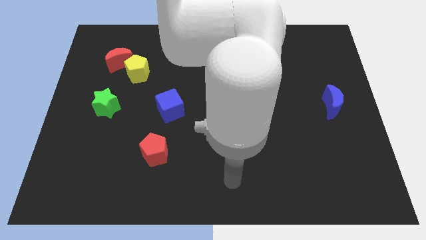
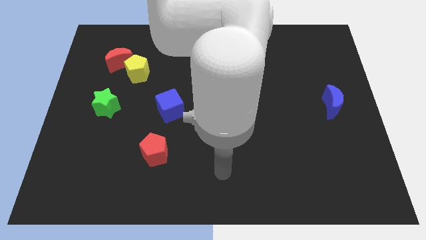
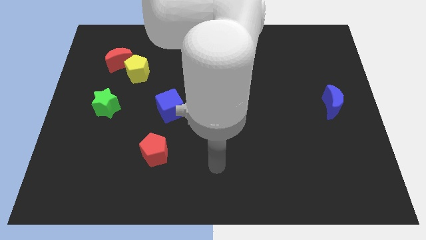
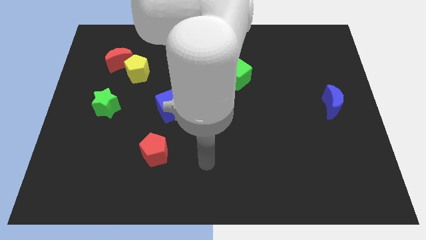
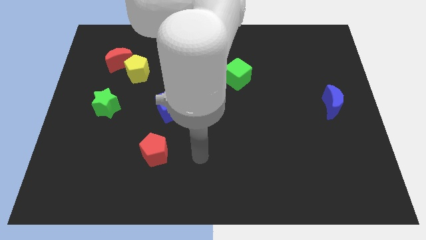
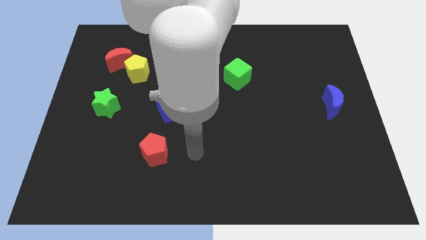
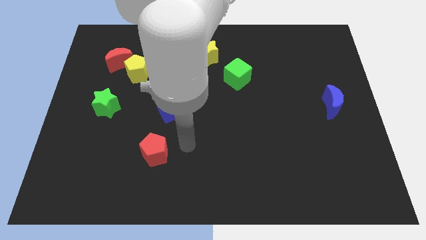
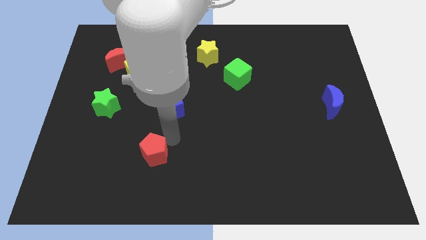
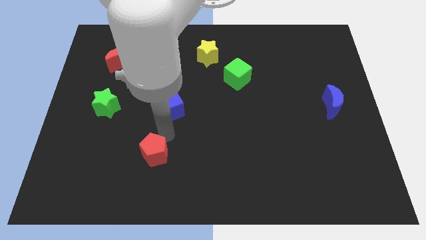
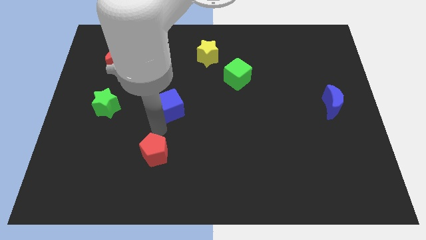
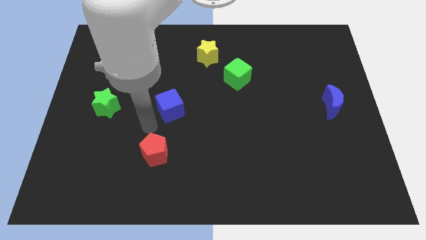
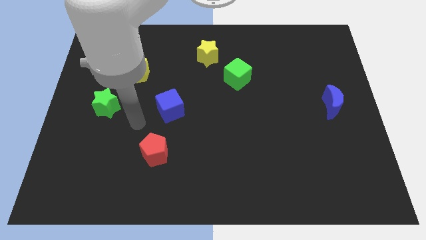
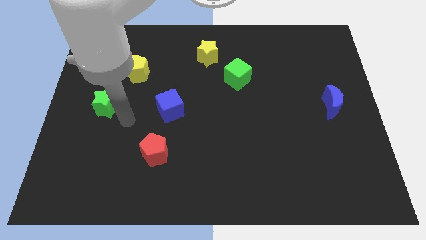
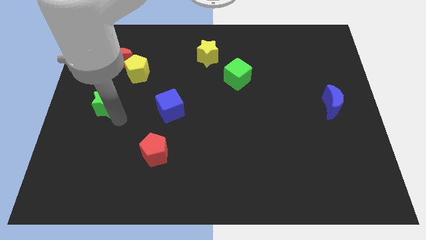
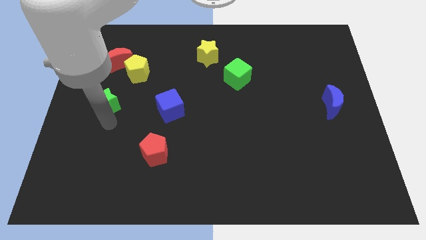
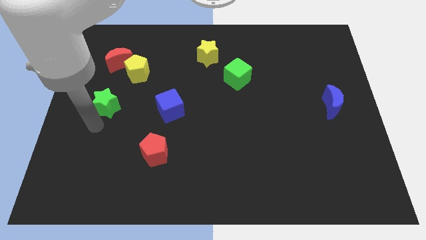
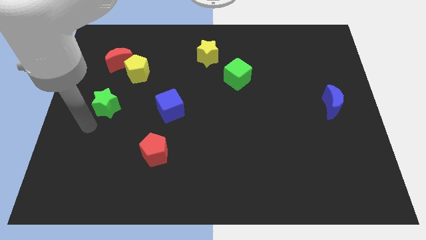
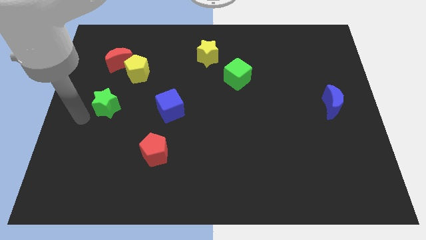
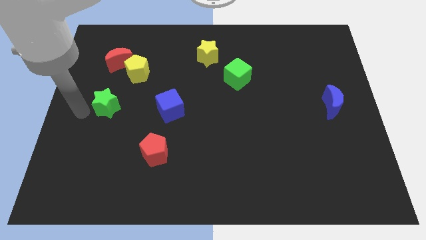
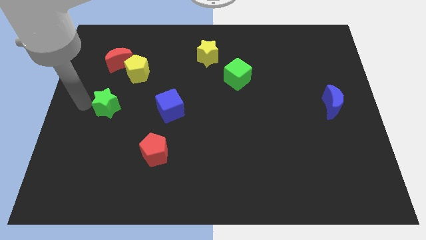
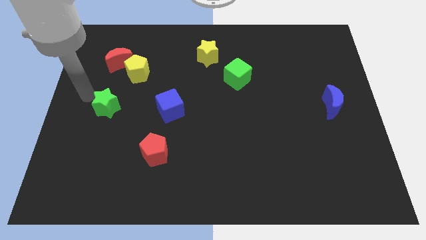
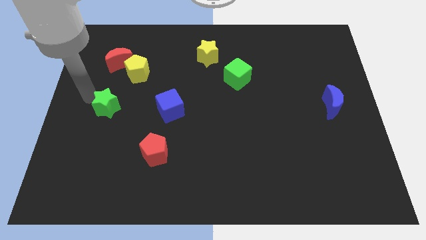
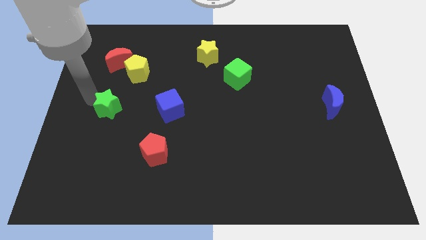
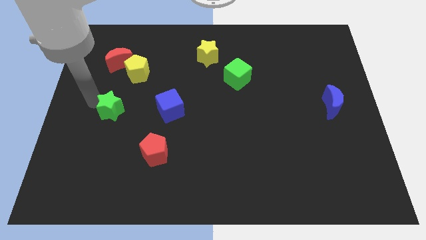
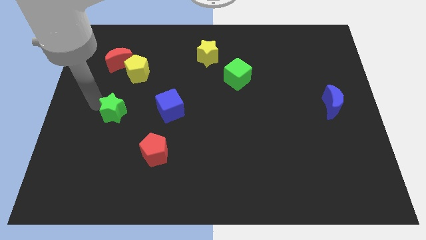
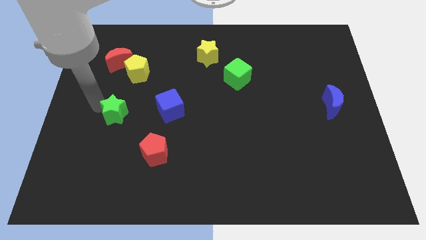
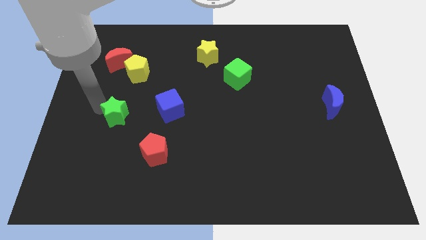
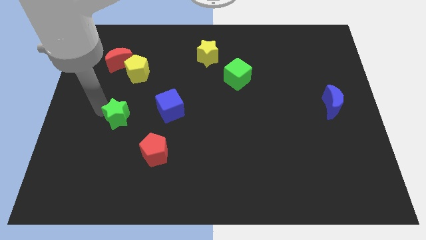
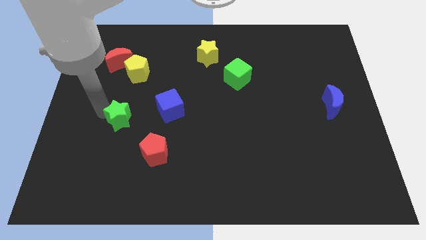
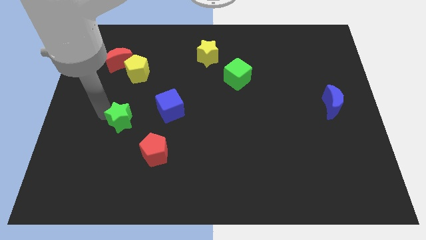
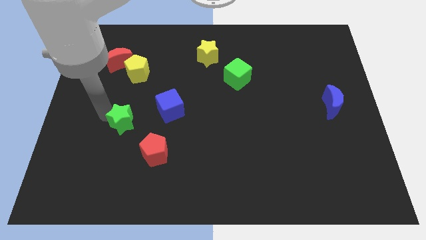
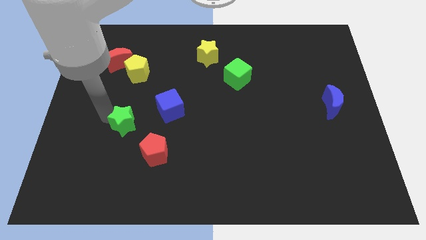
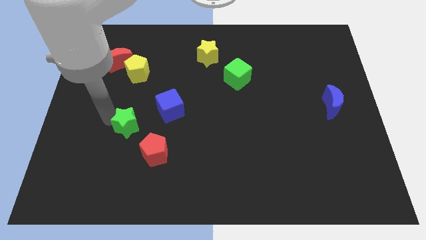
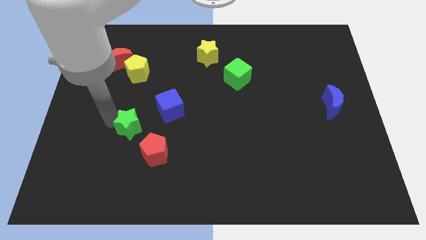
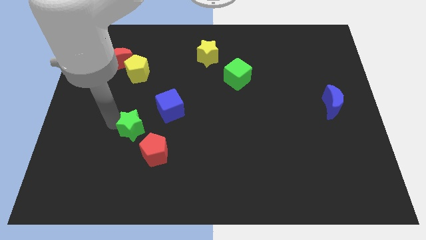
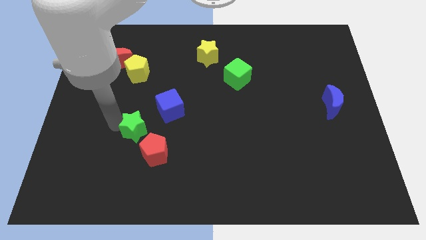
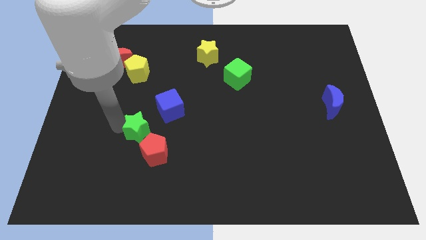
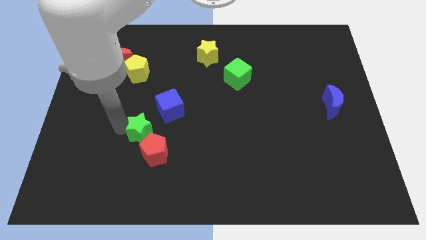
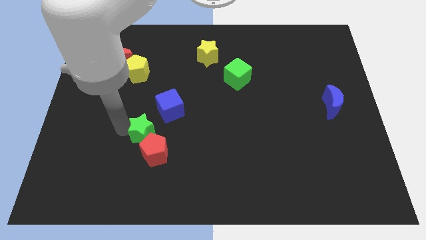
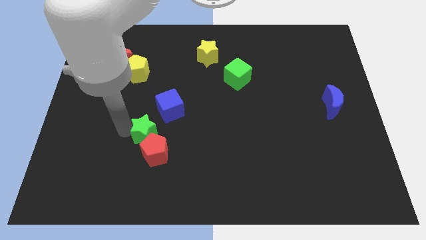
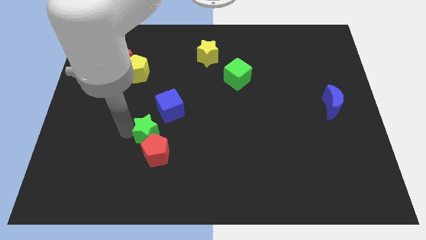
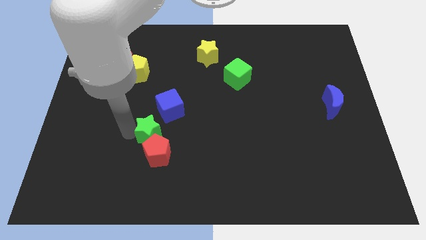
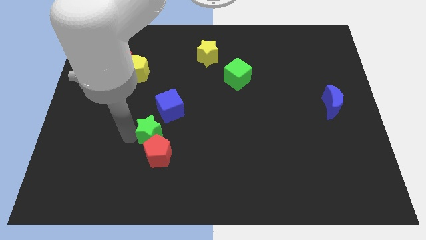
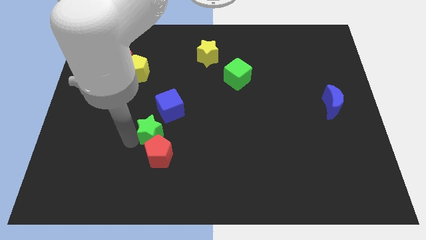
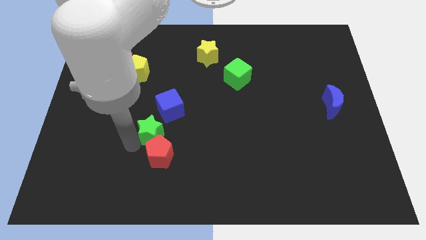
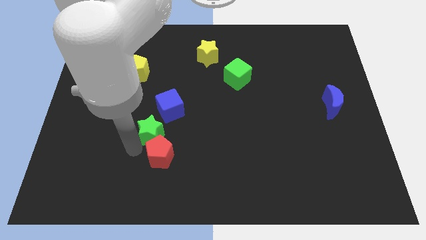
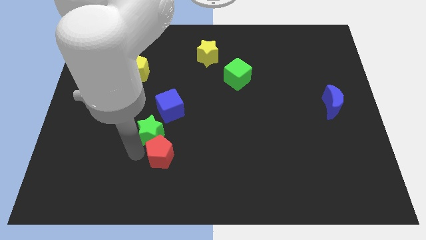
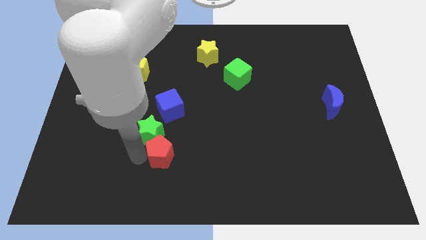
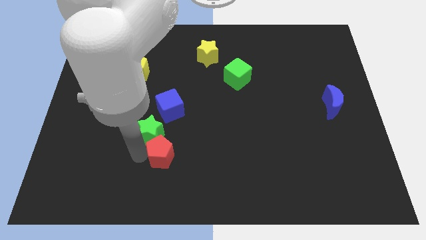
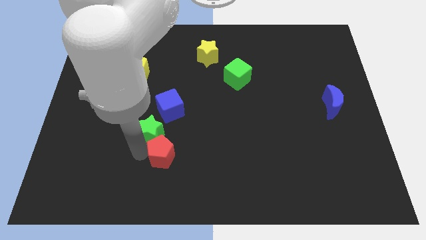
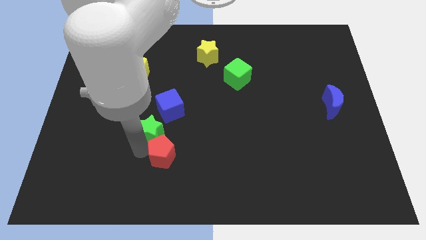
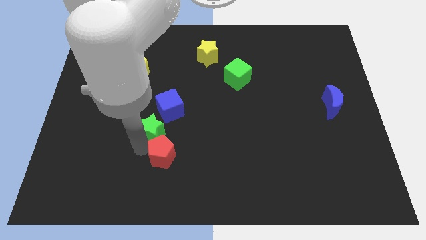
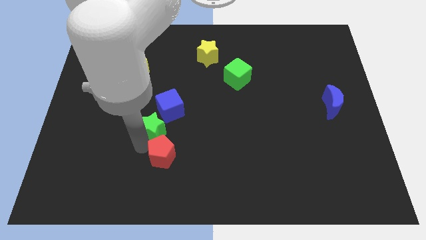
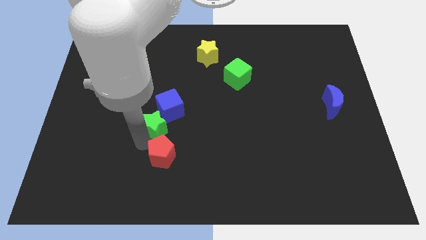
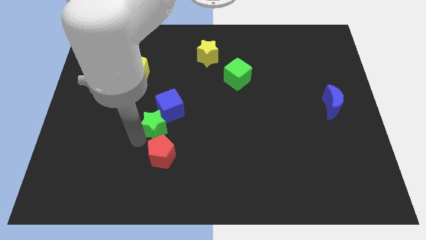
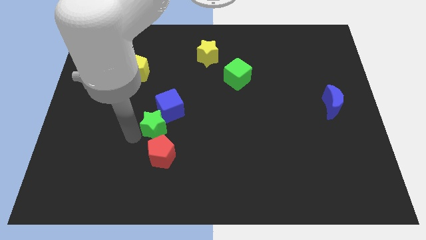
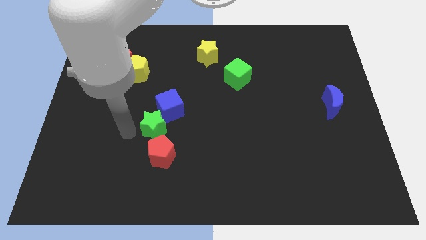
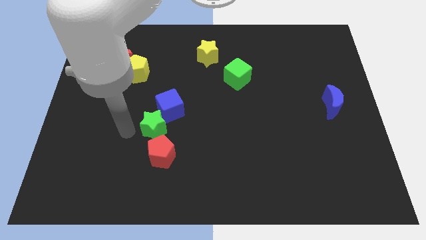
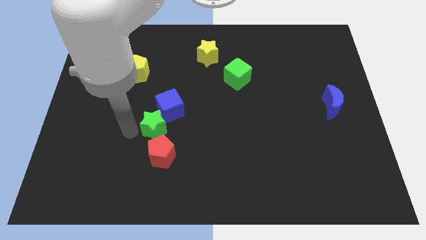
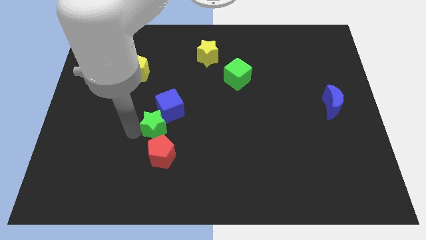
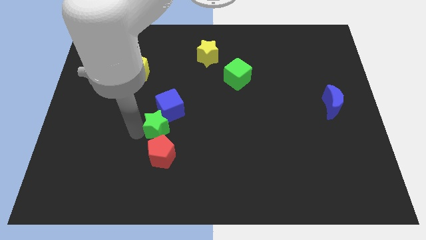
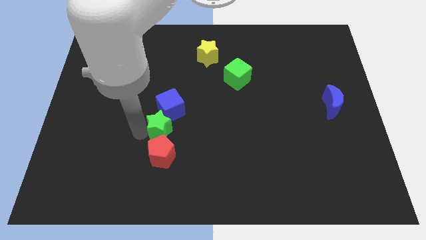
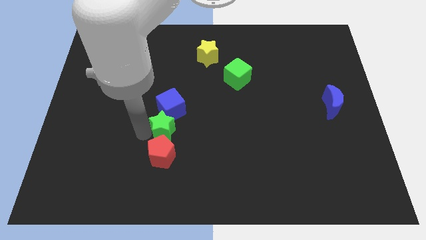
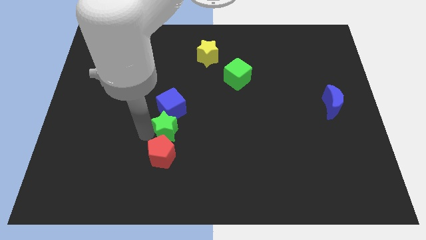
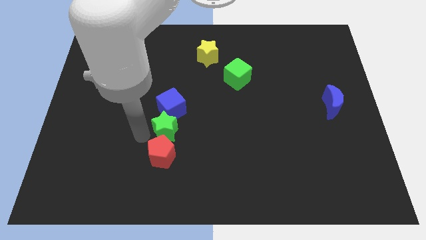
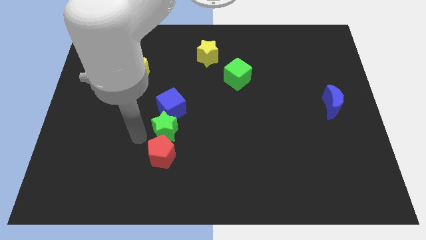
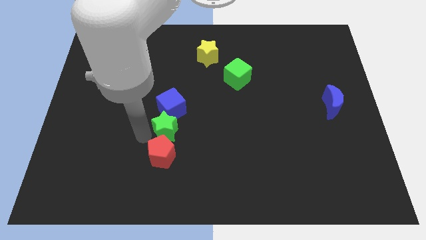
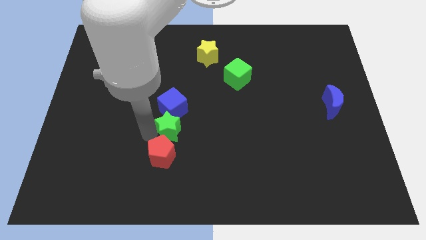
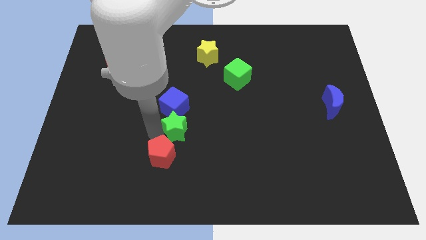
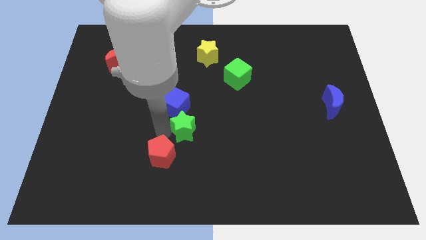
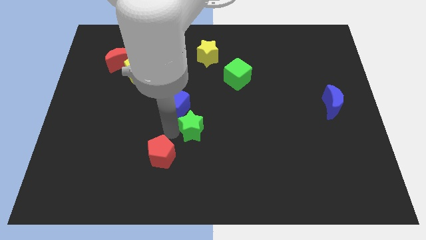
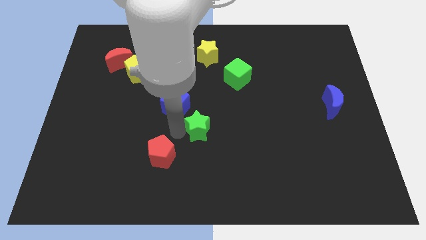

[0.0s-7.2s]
slide the green star right

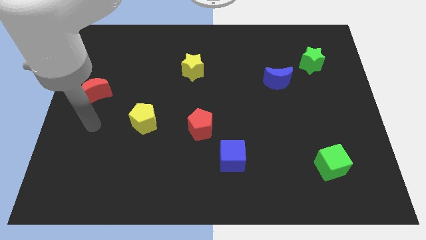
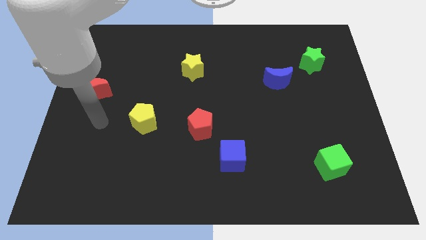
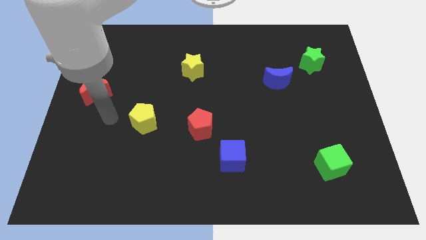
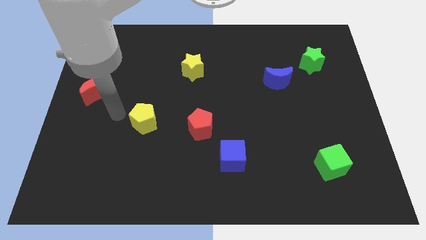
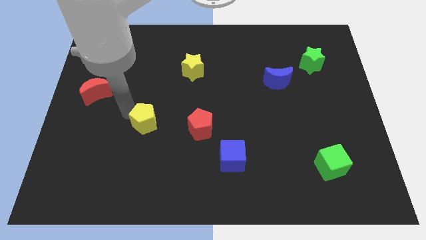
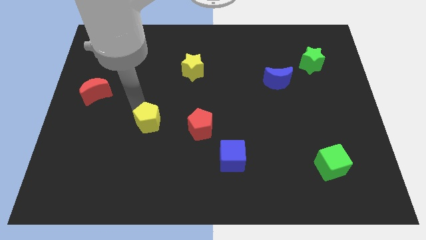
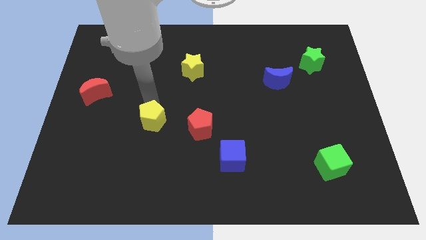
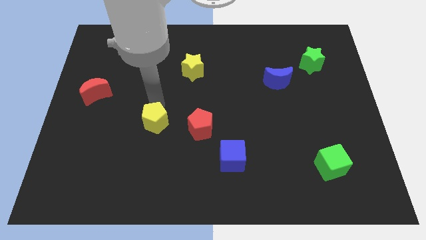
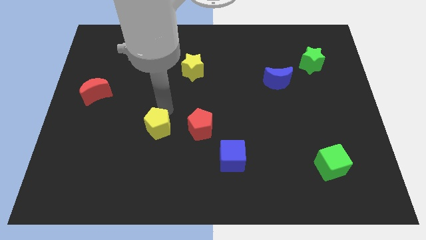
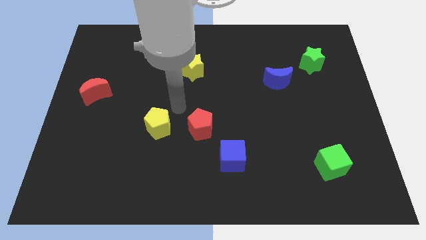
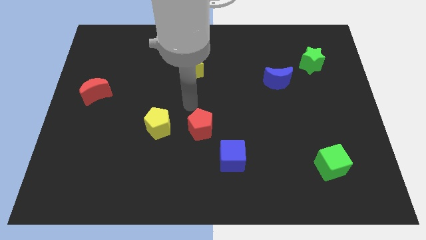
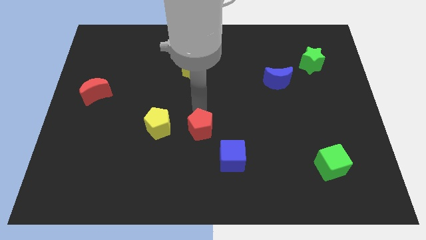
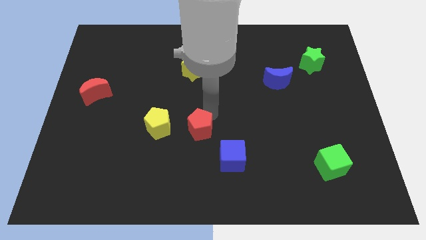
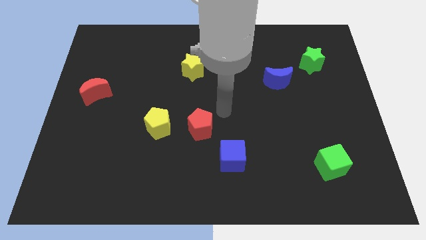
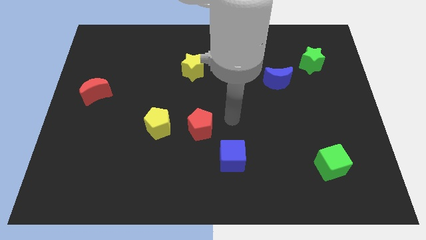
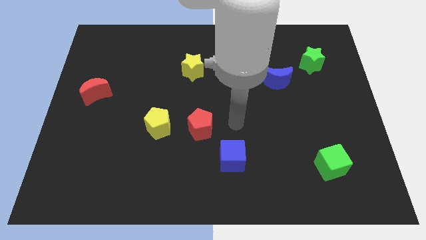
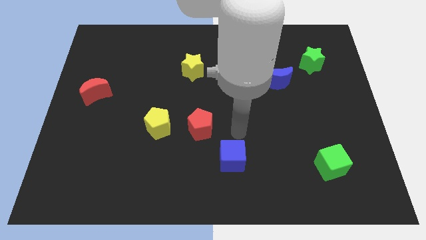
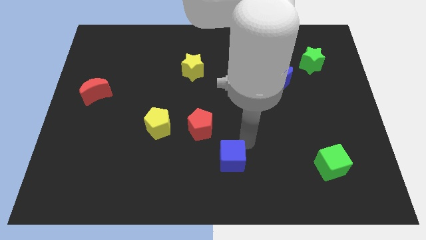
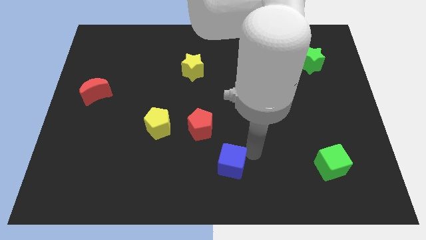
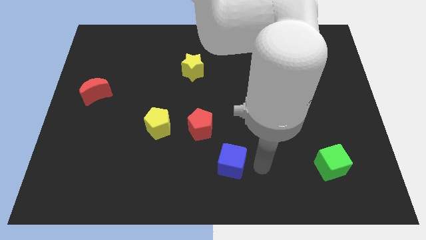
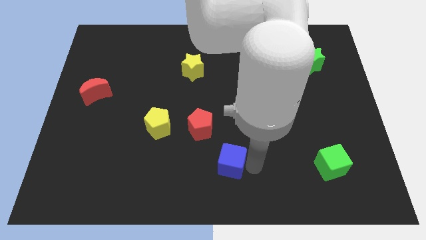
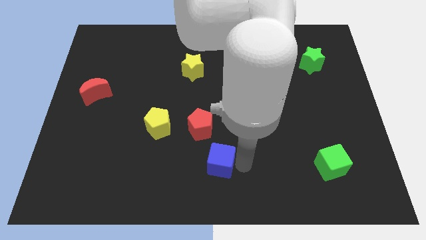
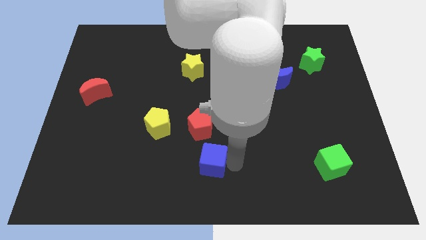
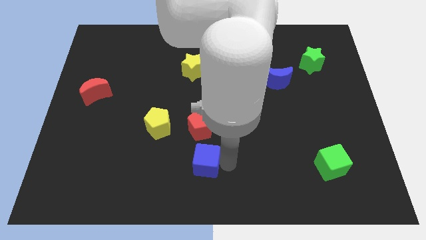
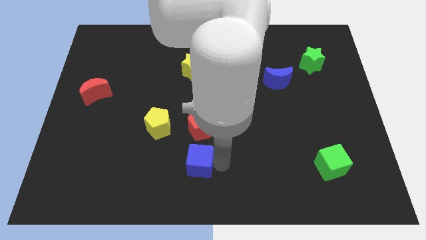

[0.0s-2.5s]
move the blue cube a little to the left
